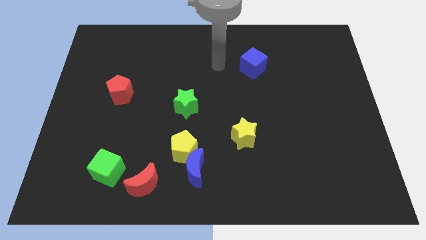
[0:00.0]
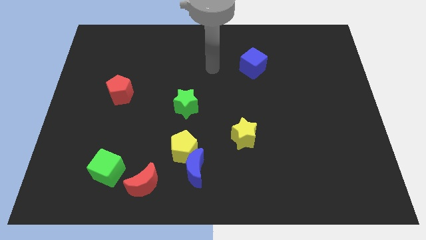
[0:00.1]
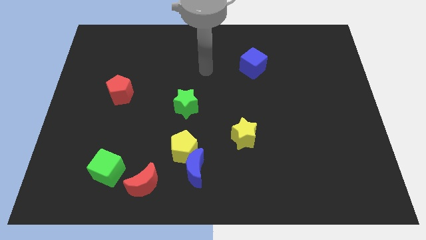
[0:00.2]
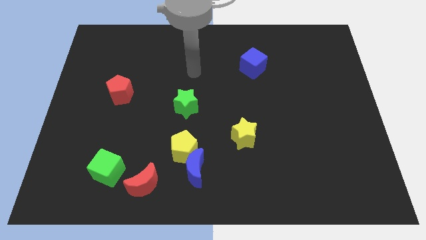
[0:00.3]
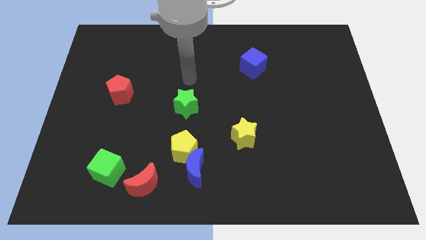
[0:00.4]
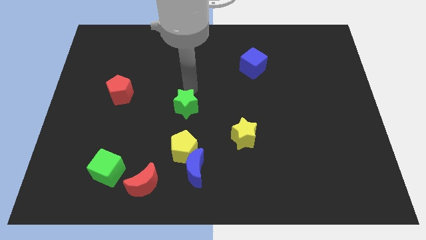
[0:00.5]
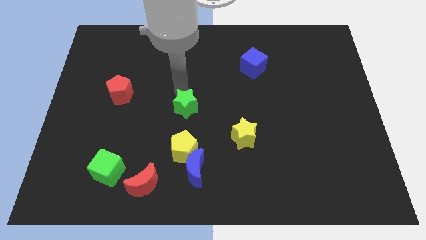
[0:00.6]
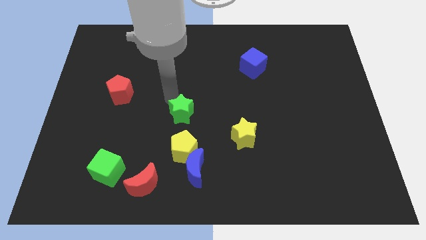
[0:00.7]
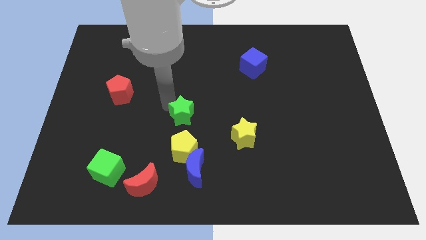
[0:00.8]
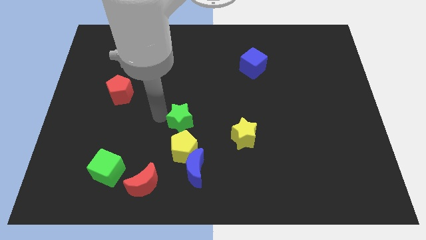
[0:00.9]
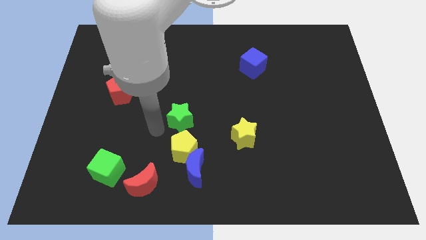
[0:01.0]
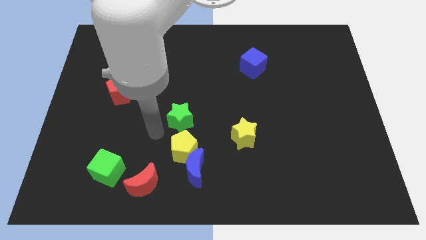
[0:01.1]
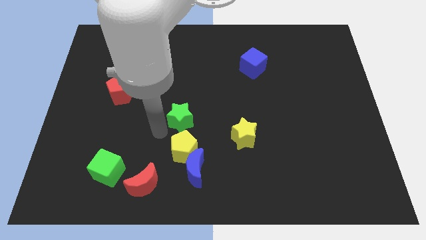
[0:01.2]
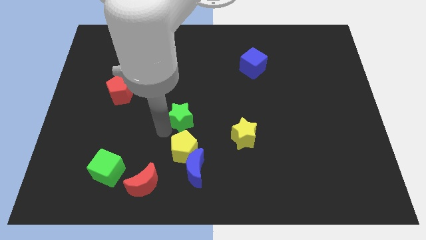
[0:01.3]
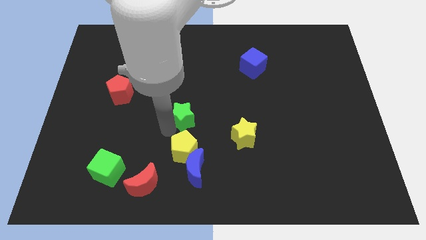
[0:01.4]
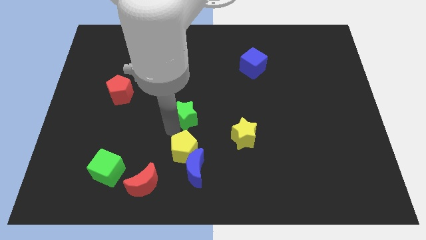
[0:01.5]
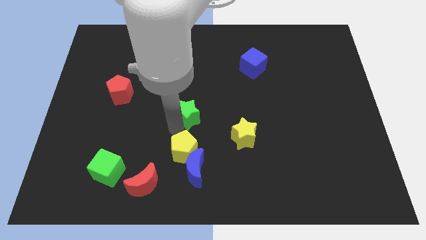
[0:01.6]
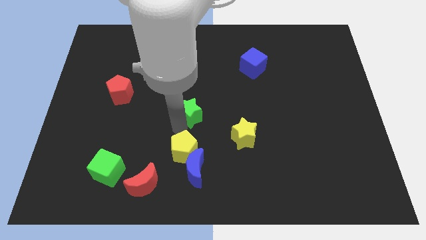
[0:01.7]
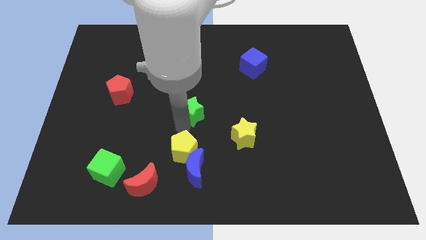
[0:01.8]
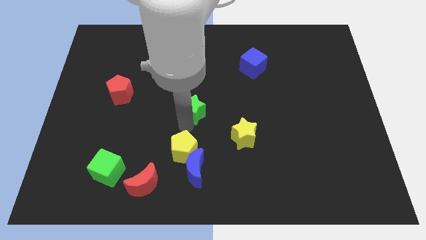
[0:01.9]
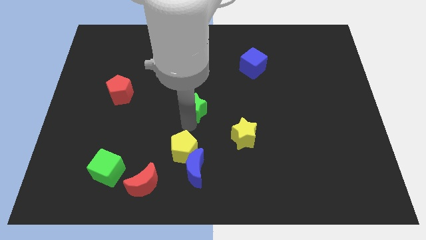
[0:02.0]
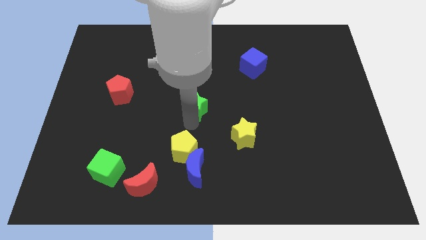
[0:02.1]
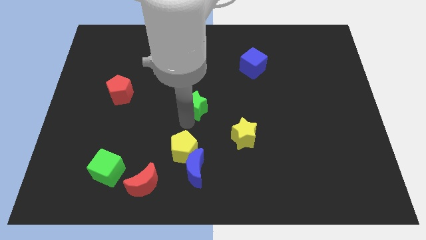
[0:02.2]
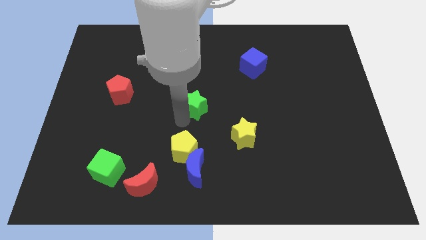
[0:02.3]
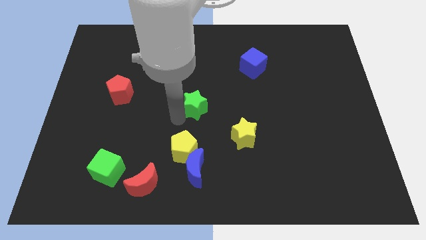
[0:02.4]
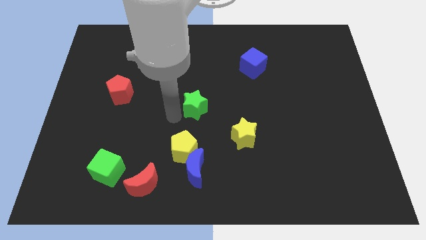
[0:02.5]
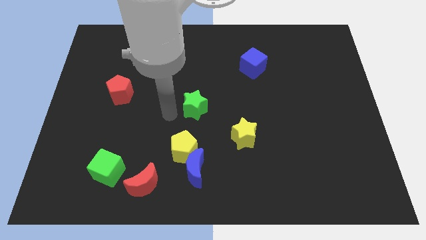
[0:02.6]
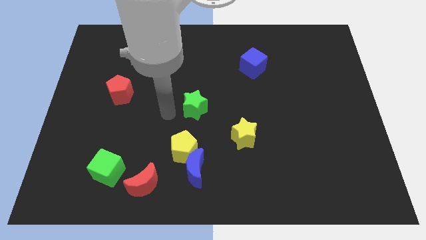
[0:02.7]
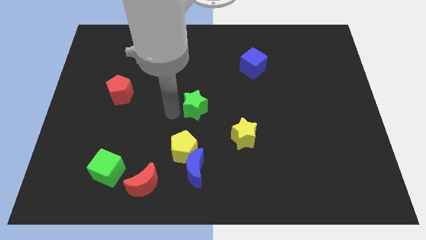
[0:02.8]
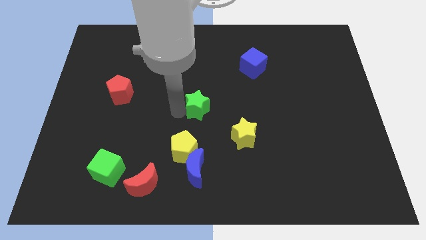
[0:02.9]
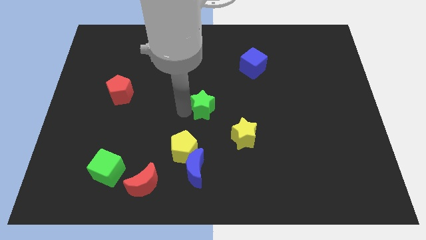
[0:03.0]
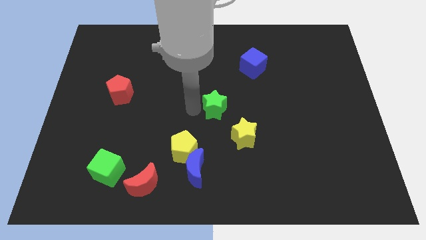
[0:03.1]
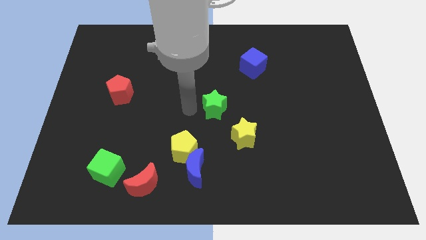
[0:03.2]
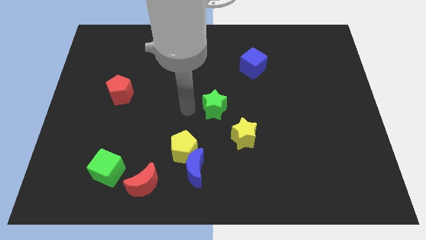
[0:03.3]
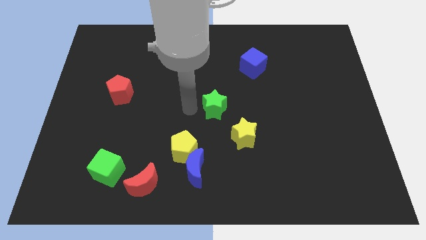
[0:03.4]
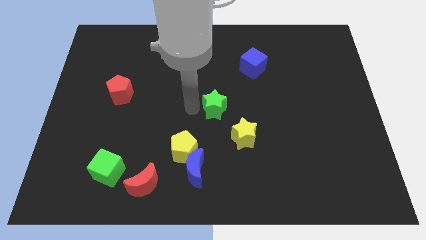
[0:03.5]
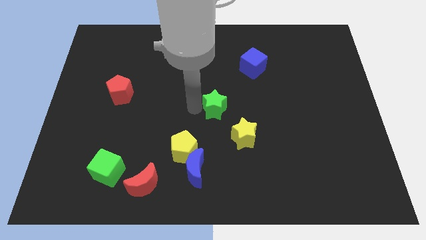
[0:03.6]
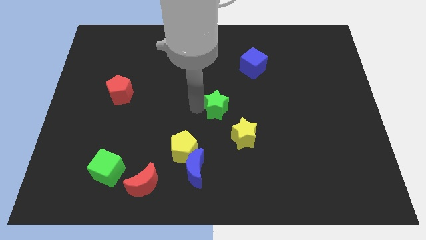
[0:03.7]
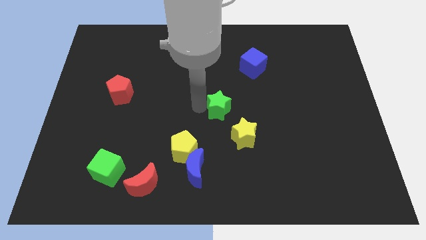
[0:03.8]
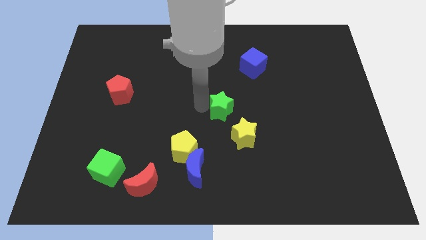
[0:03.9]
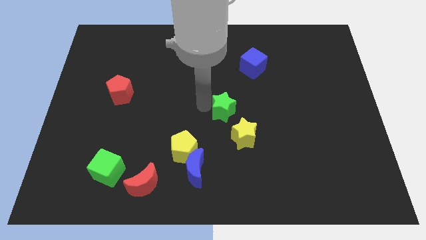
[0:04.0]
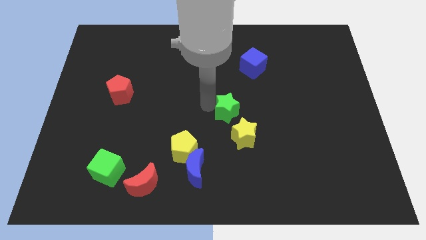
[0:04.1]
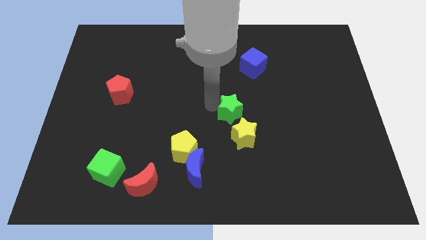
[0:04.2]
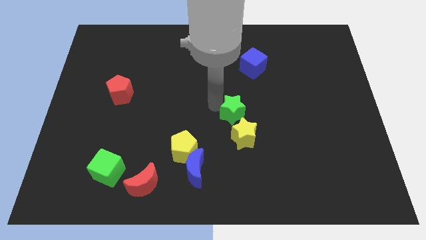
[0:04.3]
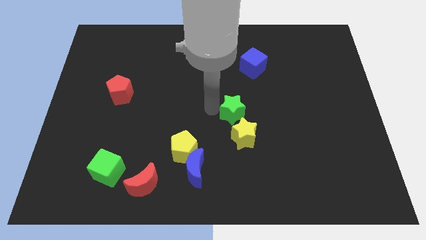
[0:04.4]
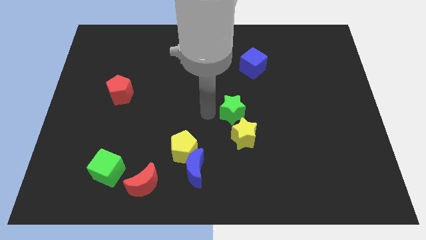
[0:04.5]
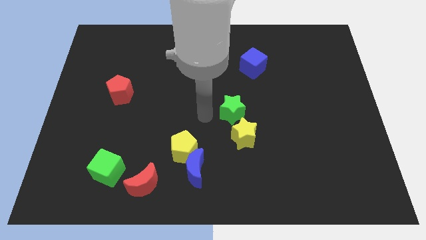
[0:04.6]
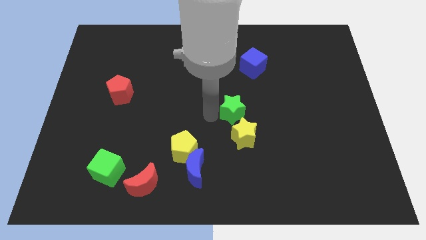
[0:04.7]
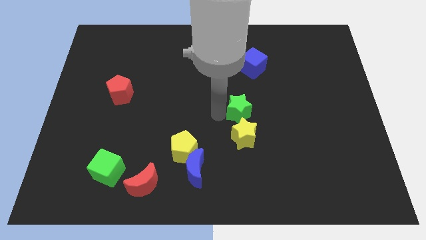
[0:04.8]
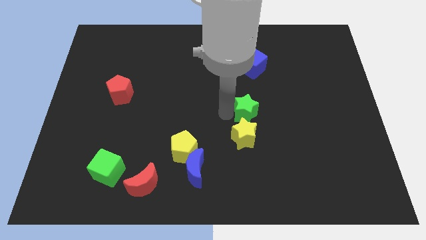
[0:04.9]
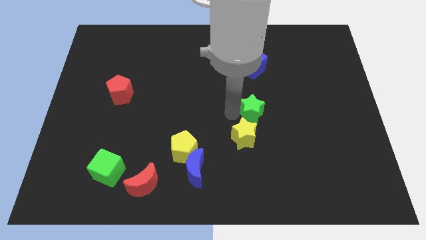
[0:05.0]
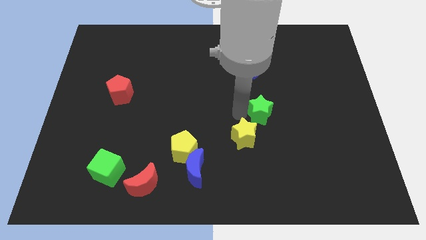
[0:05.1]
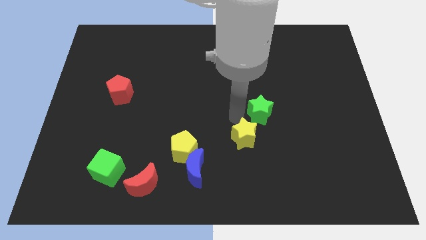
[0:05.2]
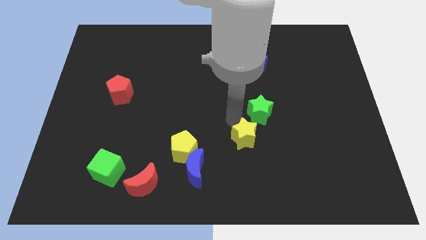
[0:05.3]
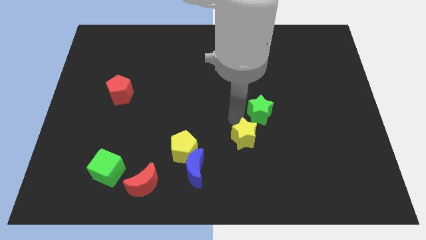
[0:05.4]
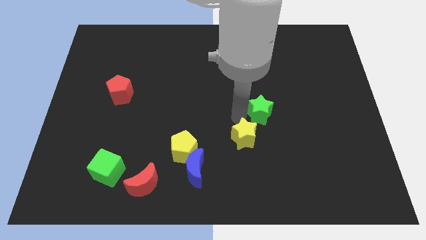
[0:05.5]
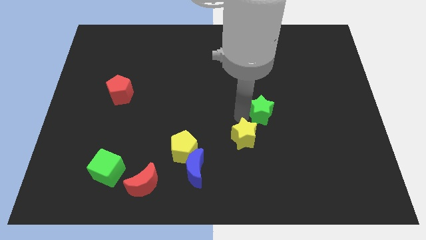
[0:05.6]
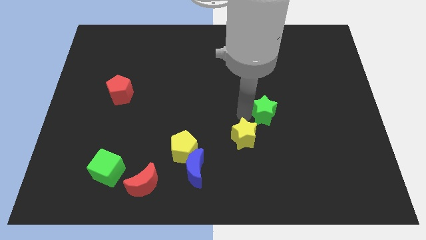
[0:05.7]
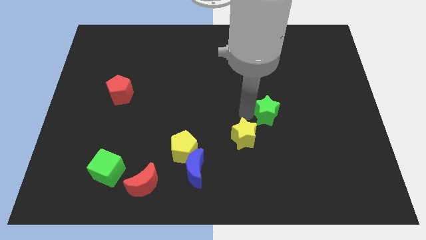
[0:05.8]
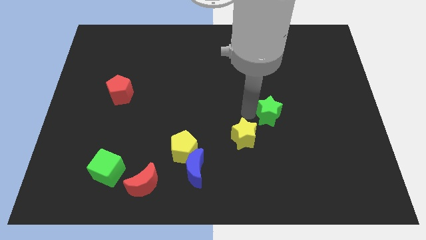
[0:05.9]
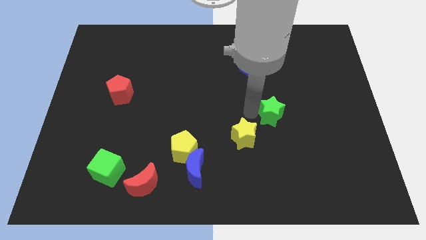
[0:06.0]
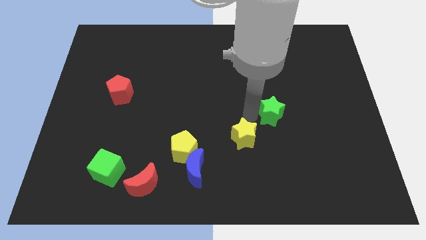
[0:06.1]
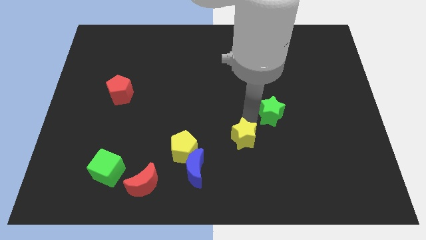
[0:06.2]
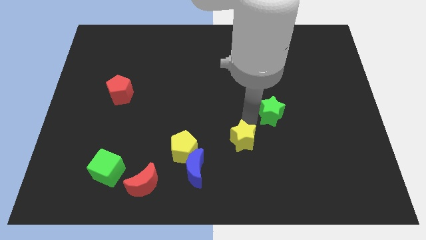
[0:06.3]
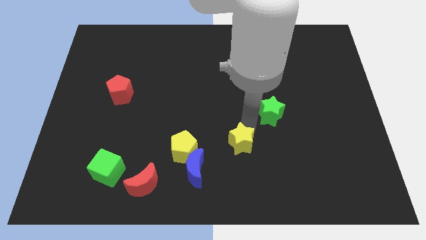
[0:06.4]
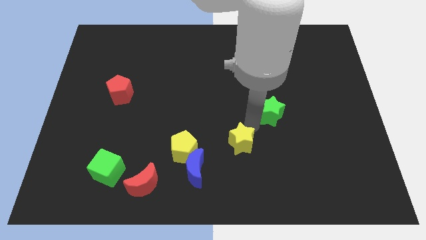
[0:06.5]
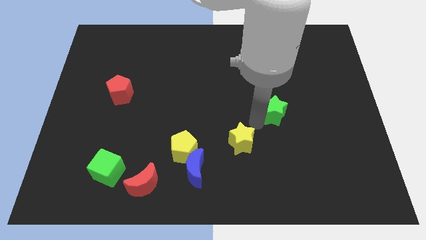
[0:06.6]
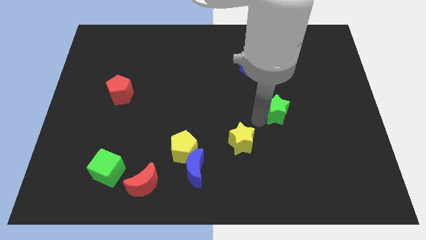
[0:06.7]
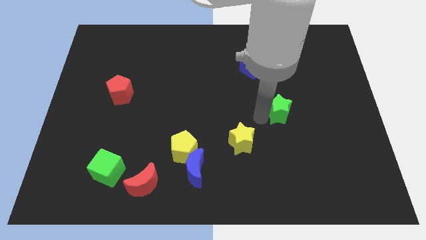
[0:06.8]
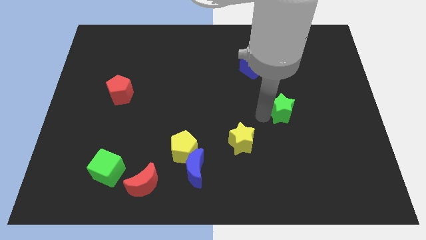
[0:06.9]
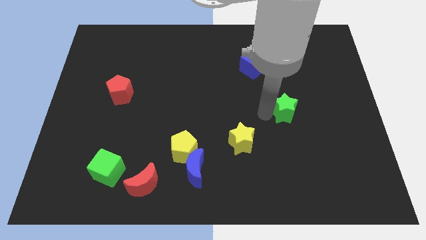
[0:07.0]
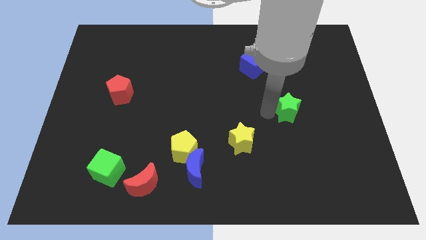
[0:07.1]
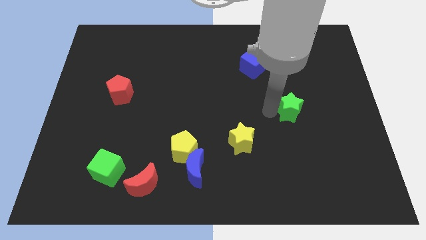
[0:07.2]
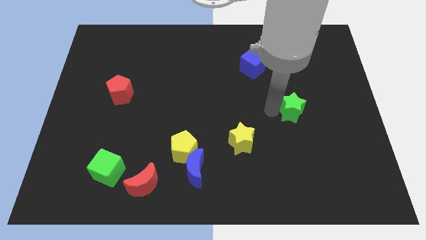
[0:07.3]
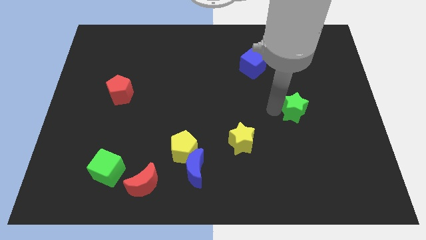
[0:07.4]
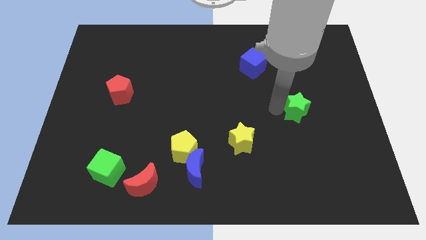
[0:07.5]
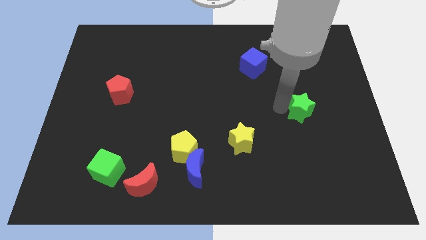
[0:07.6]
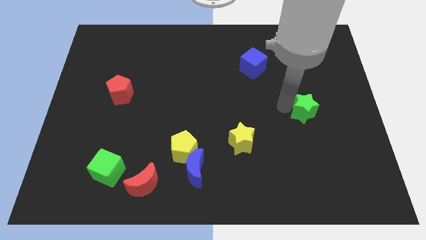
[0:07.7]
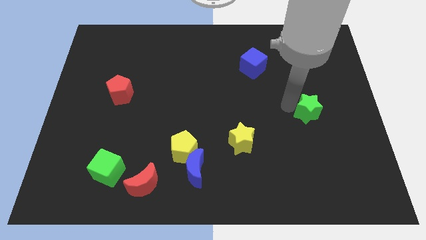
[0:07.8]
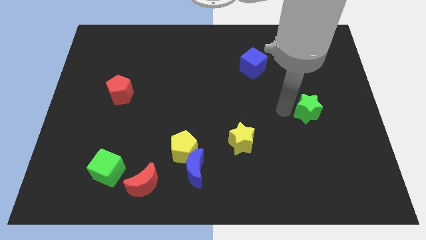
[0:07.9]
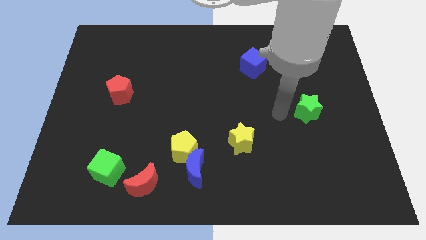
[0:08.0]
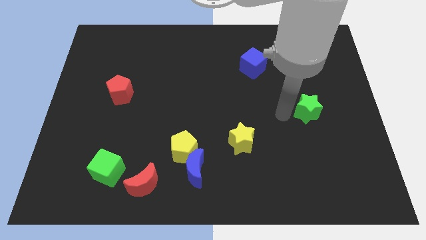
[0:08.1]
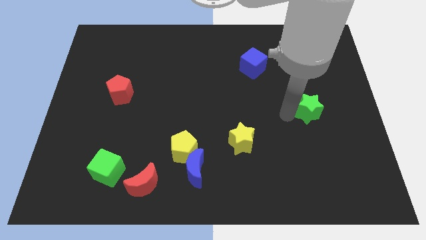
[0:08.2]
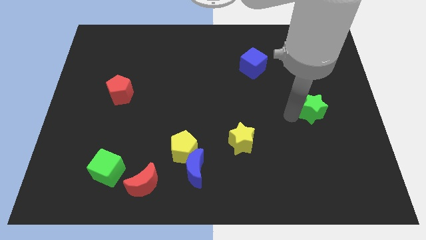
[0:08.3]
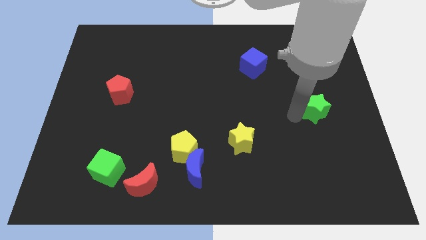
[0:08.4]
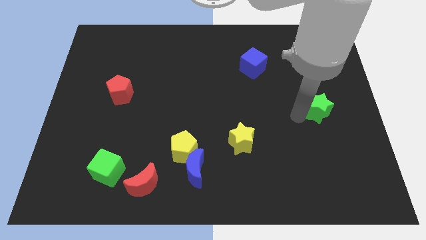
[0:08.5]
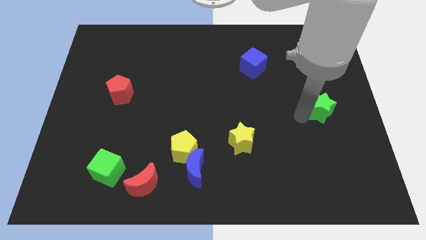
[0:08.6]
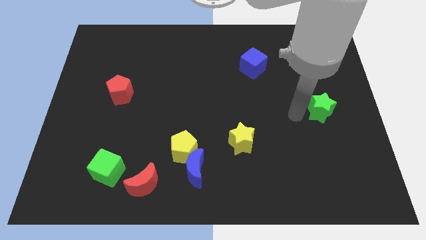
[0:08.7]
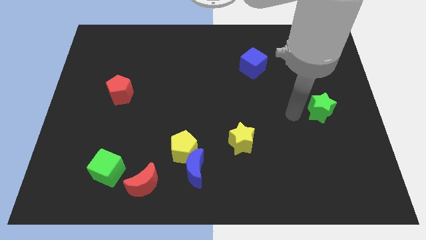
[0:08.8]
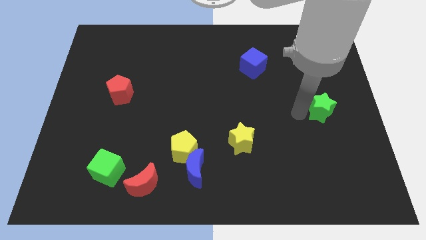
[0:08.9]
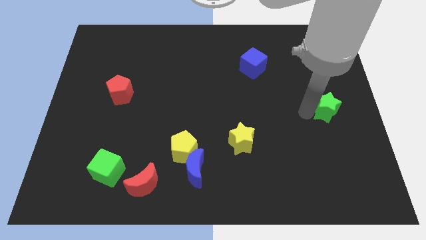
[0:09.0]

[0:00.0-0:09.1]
put the green star to the right side
